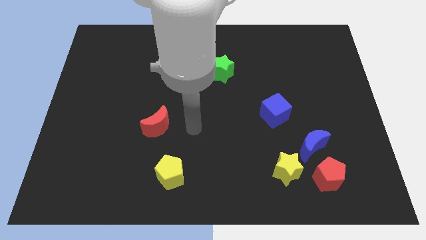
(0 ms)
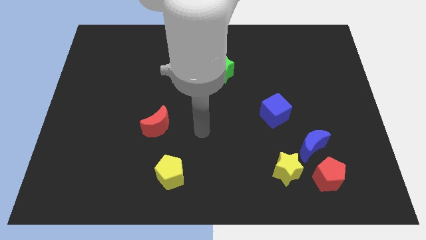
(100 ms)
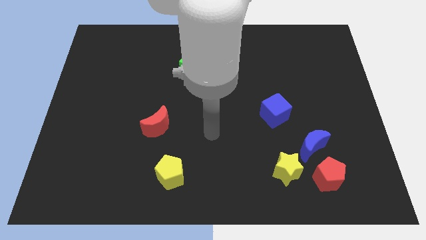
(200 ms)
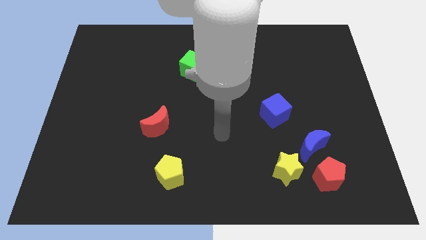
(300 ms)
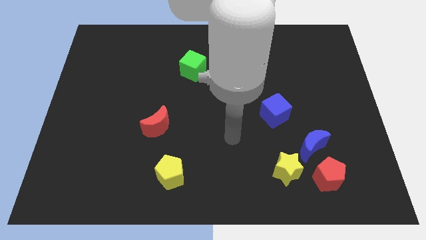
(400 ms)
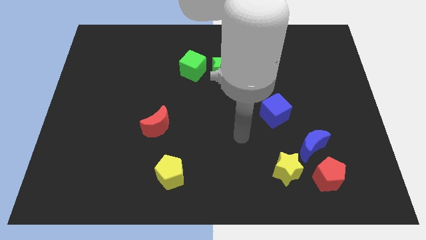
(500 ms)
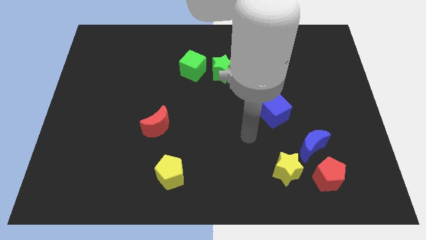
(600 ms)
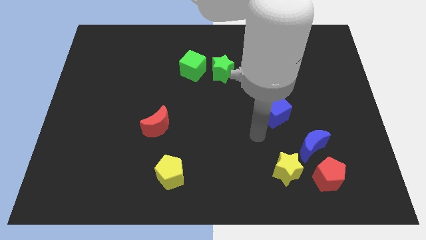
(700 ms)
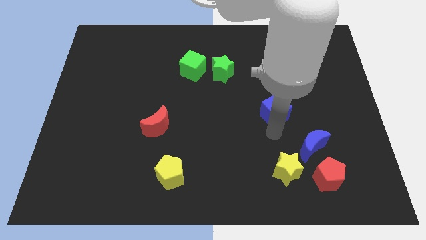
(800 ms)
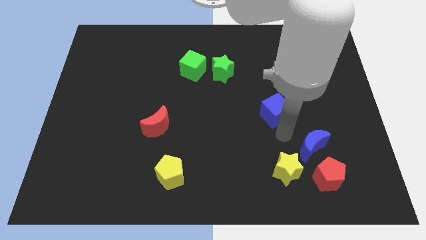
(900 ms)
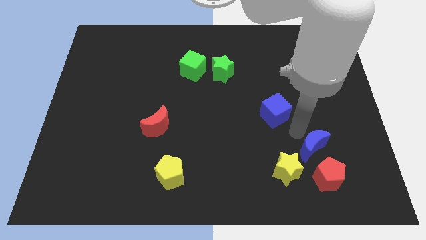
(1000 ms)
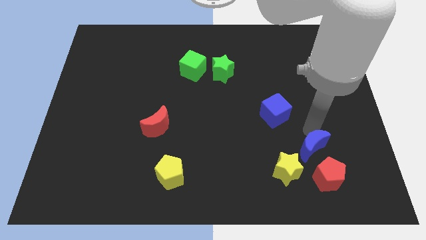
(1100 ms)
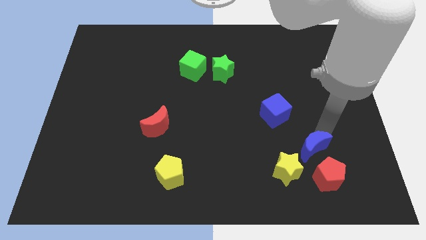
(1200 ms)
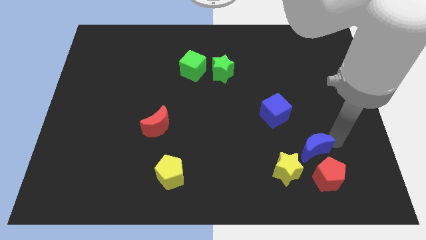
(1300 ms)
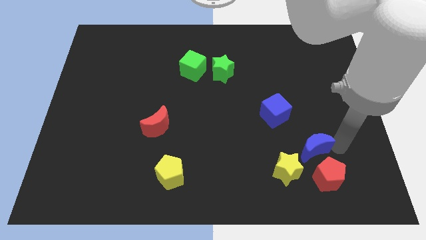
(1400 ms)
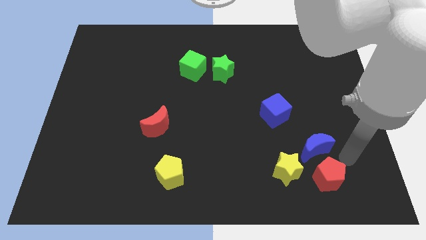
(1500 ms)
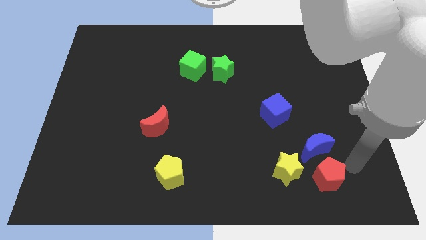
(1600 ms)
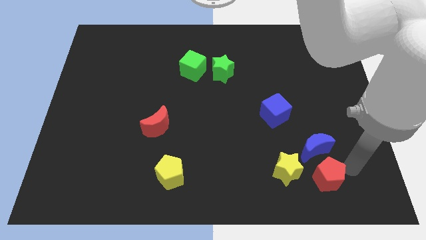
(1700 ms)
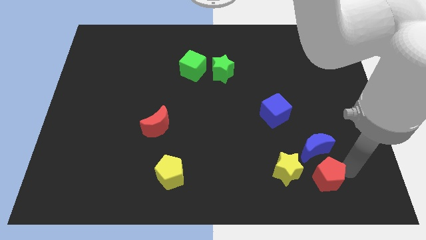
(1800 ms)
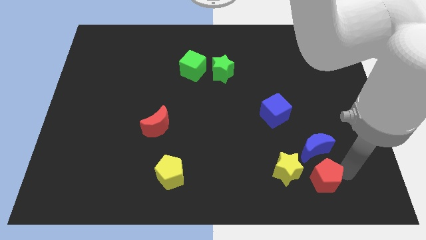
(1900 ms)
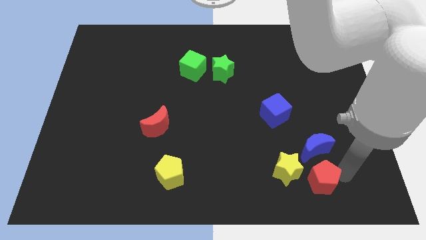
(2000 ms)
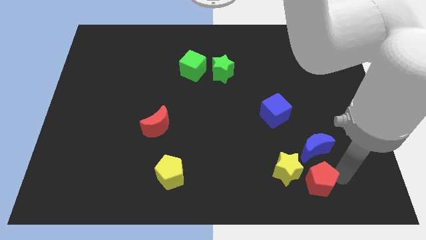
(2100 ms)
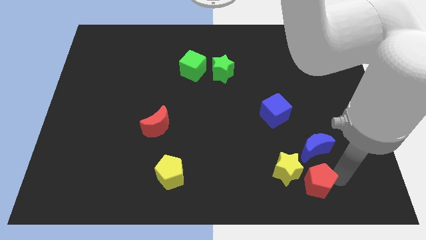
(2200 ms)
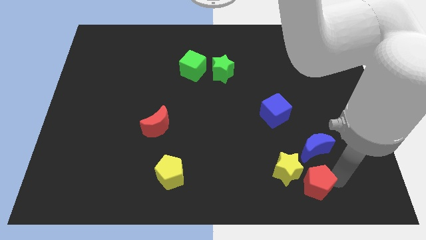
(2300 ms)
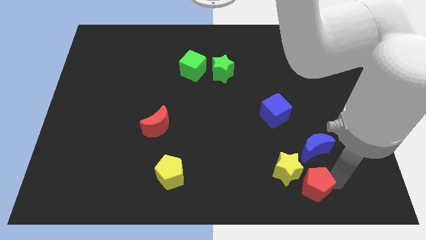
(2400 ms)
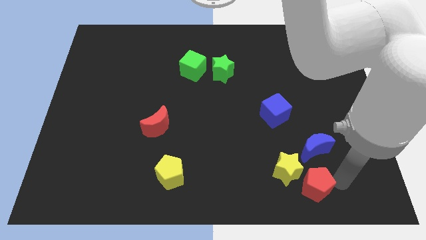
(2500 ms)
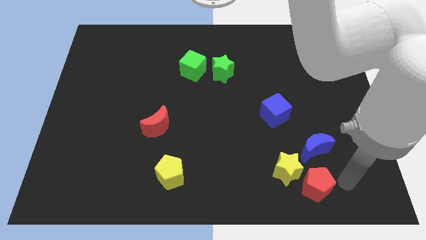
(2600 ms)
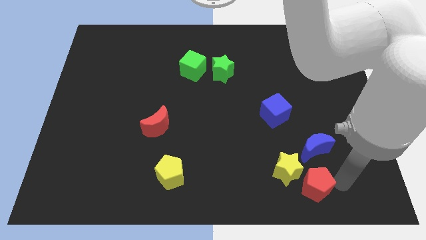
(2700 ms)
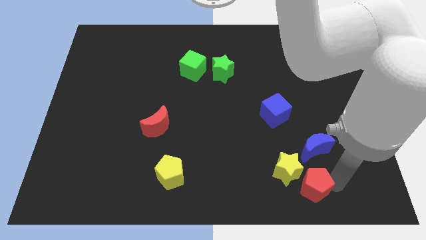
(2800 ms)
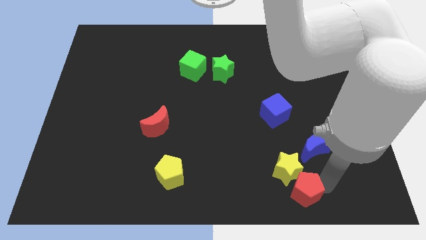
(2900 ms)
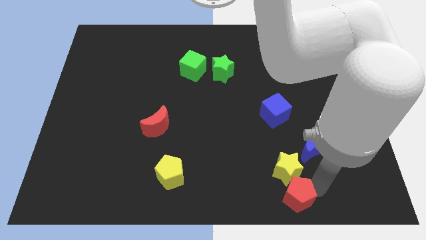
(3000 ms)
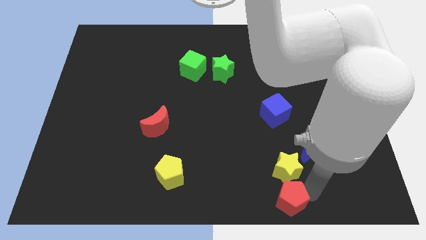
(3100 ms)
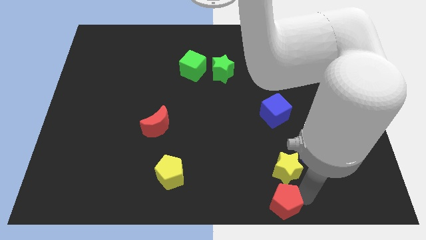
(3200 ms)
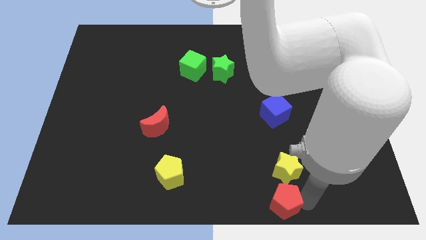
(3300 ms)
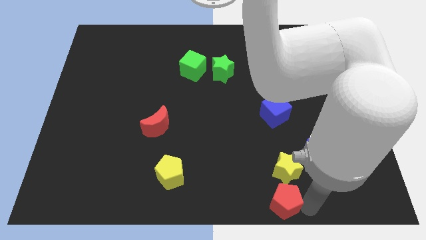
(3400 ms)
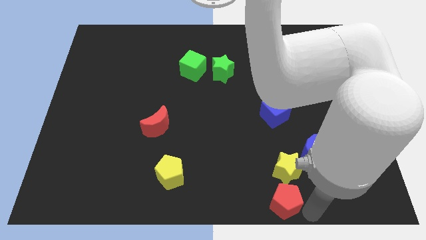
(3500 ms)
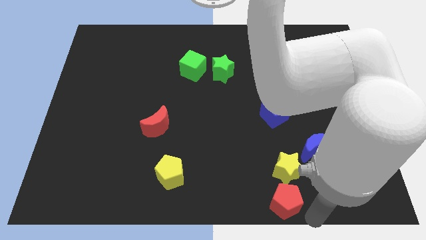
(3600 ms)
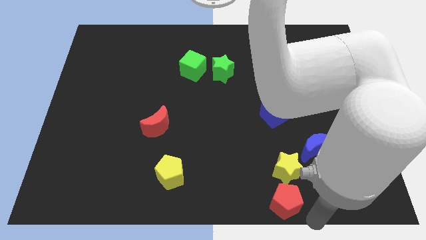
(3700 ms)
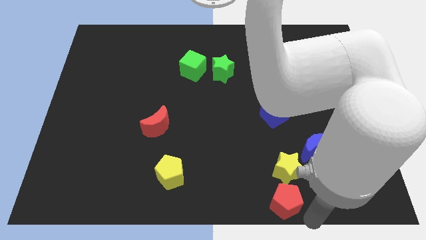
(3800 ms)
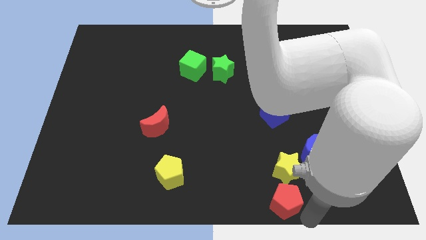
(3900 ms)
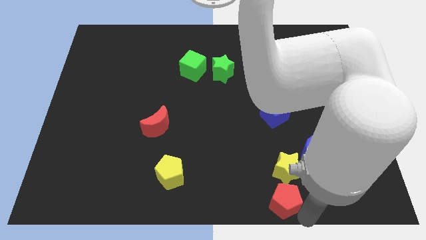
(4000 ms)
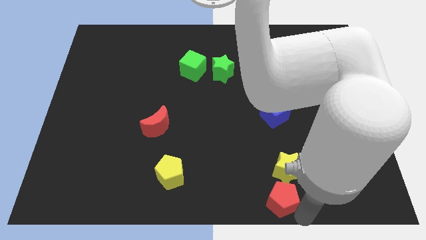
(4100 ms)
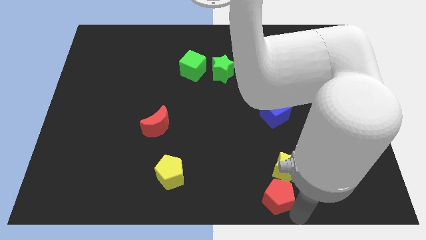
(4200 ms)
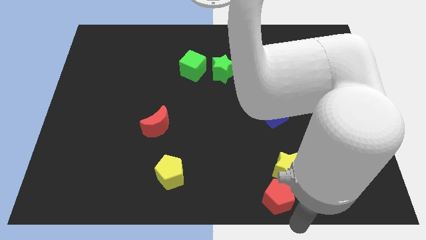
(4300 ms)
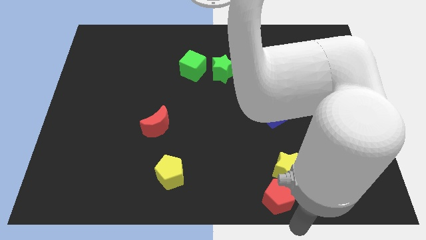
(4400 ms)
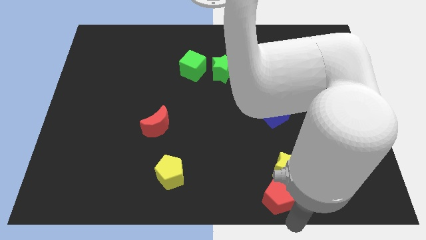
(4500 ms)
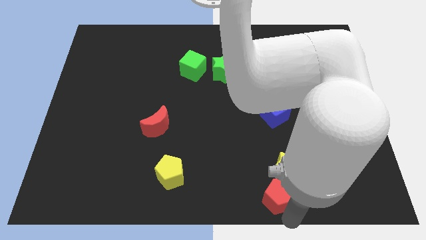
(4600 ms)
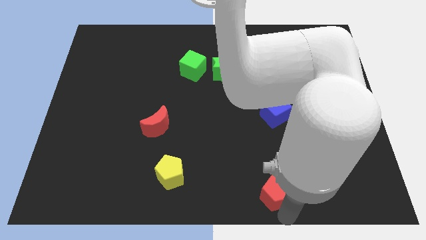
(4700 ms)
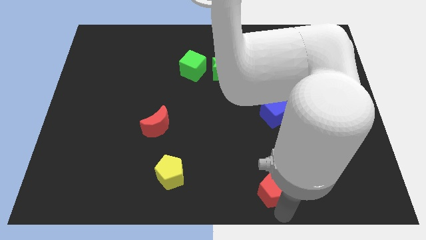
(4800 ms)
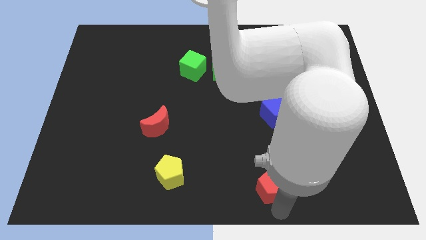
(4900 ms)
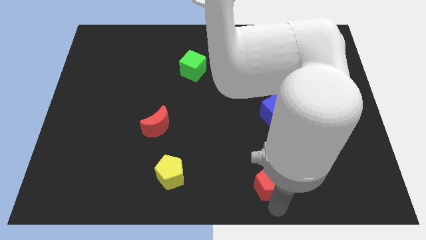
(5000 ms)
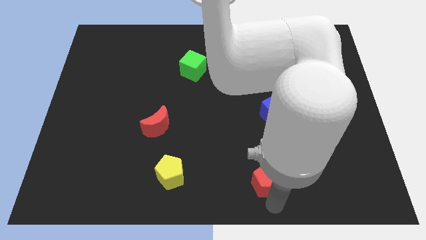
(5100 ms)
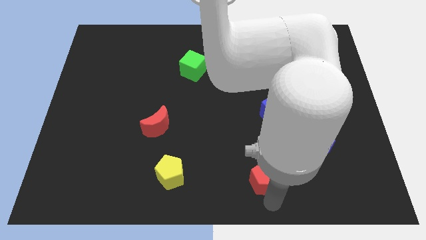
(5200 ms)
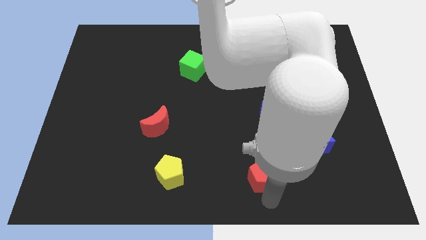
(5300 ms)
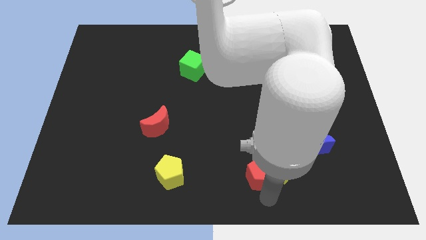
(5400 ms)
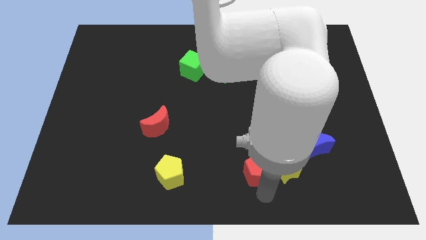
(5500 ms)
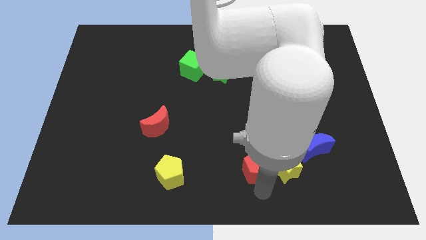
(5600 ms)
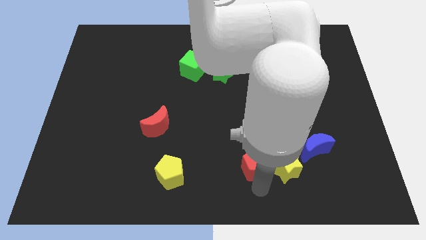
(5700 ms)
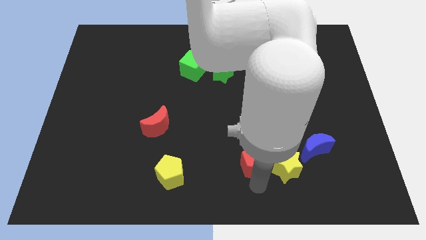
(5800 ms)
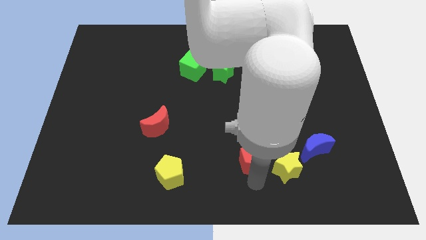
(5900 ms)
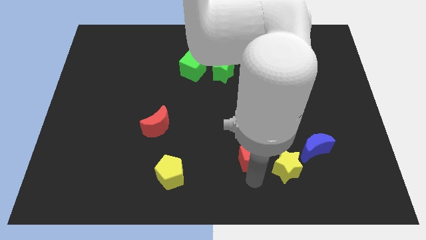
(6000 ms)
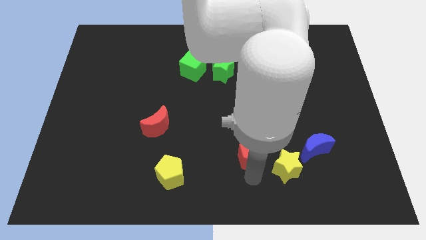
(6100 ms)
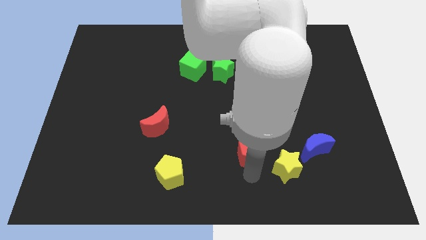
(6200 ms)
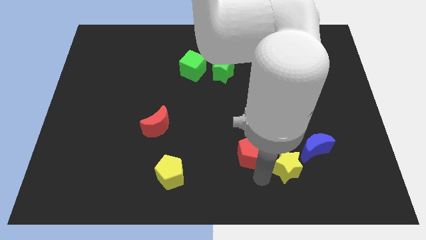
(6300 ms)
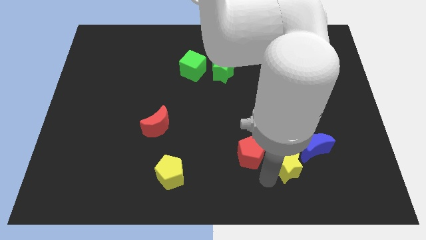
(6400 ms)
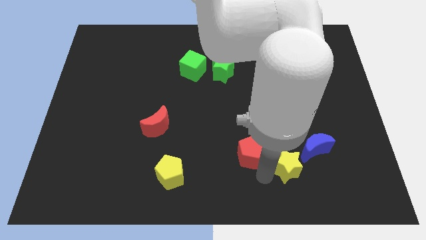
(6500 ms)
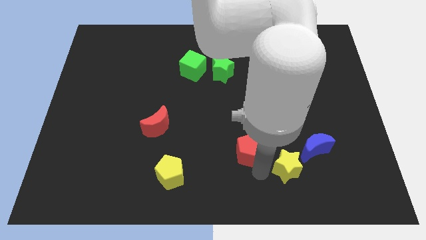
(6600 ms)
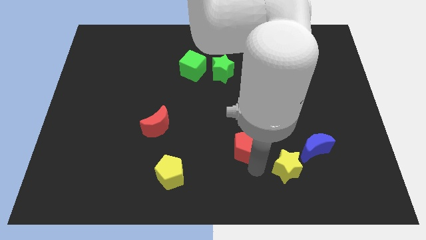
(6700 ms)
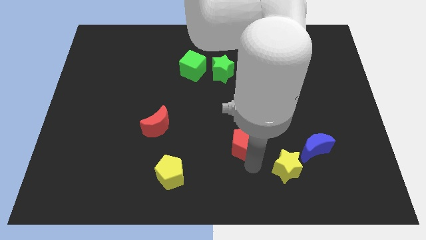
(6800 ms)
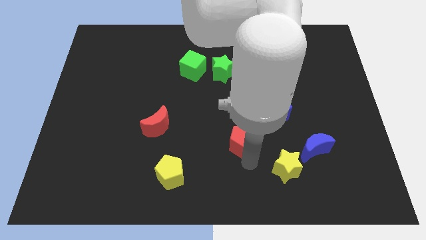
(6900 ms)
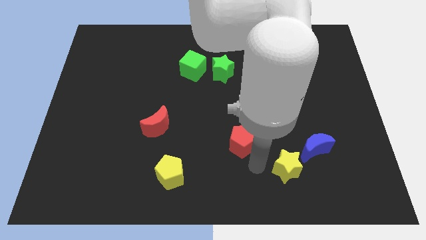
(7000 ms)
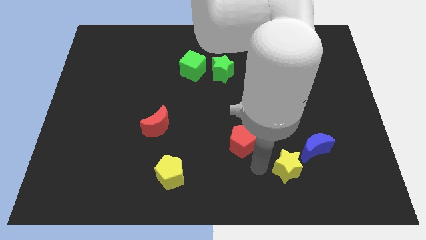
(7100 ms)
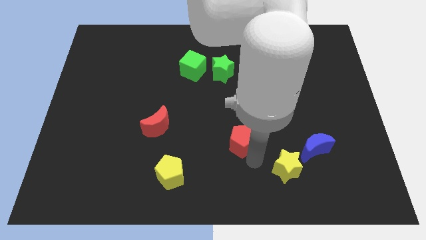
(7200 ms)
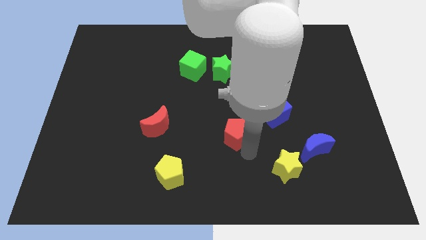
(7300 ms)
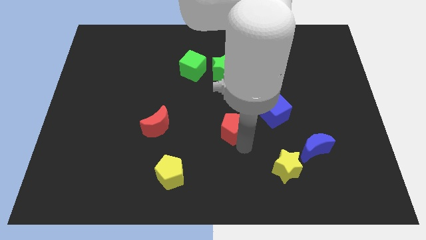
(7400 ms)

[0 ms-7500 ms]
push the red pentagon upwards and to the left diagonally

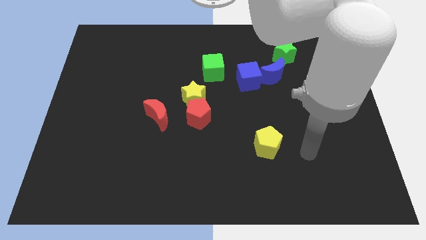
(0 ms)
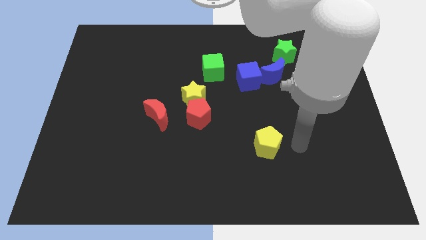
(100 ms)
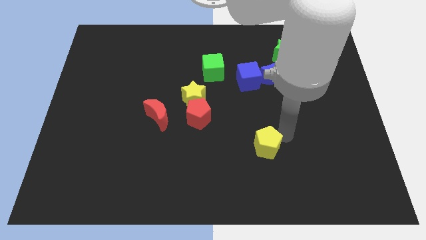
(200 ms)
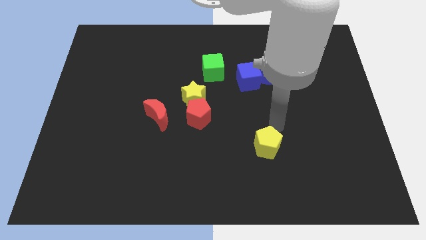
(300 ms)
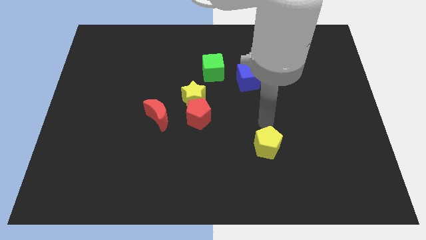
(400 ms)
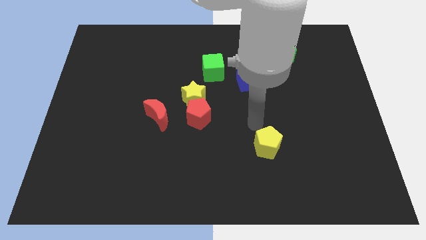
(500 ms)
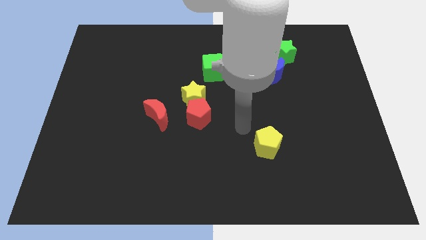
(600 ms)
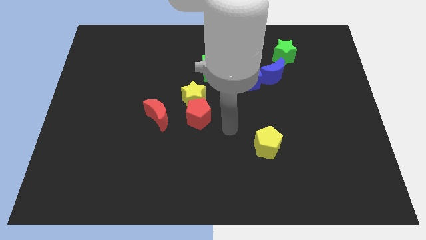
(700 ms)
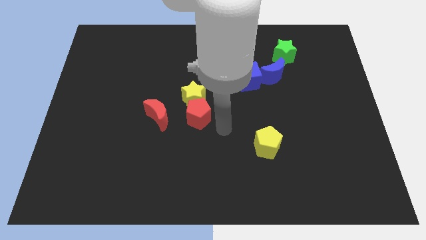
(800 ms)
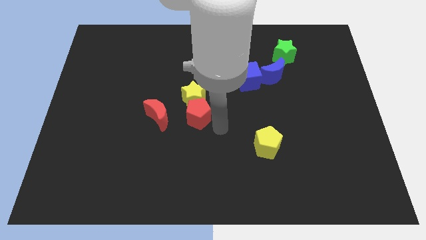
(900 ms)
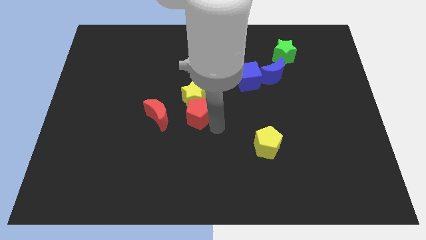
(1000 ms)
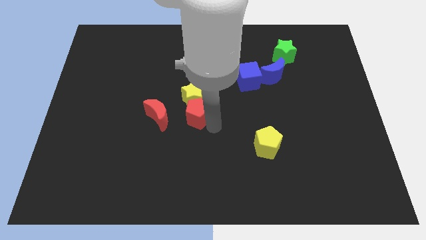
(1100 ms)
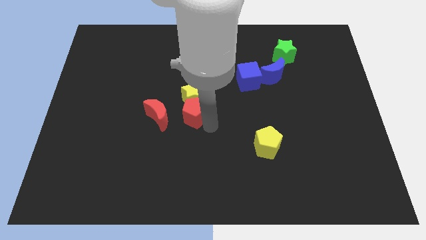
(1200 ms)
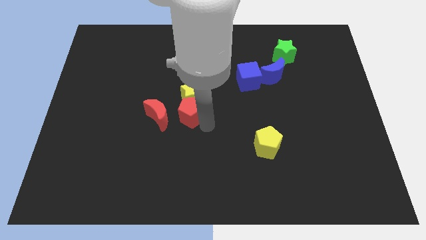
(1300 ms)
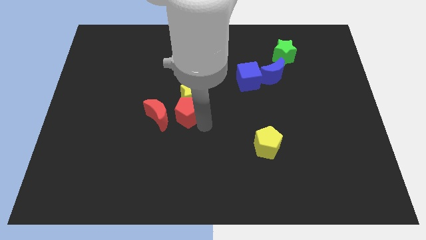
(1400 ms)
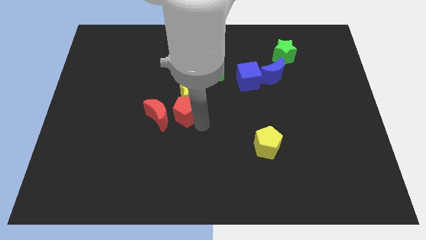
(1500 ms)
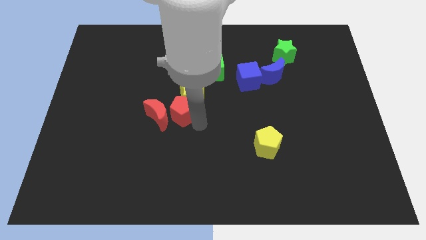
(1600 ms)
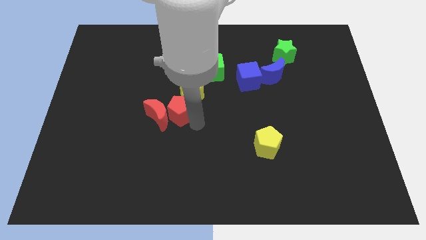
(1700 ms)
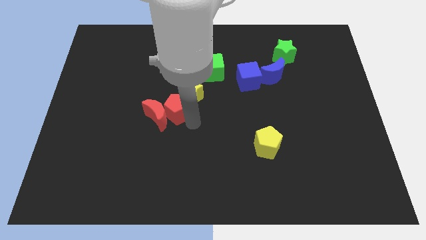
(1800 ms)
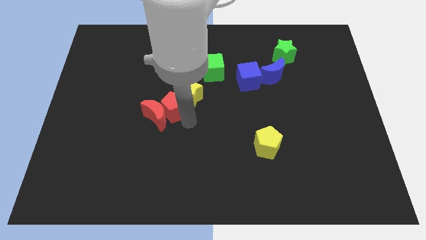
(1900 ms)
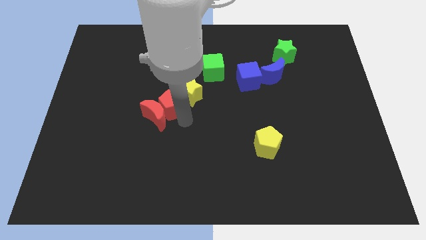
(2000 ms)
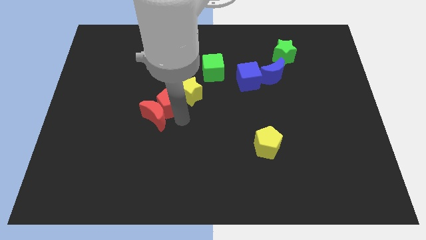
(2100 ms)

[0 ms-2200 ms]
move the red pentagon upwards and left a little bit
